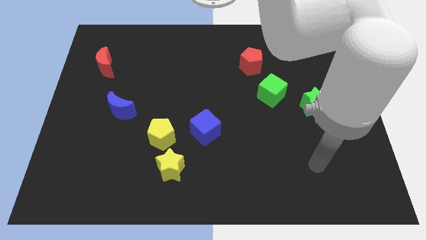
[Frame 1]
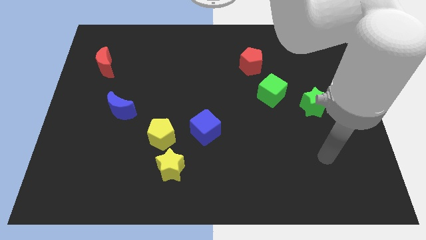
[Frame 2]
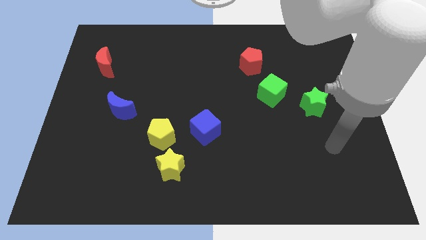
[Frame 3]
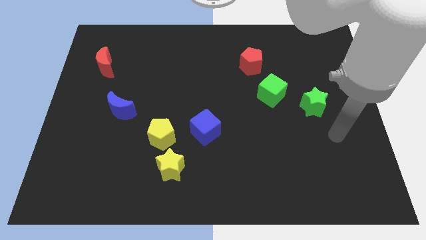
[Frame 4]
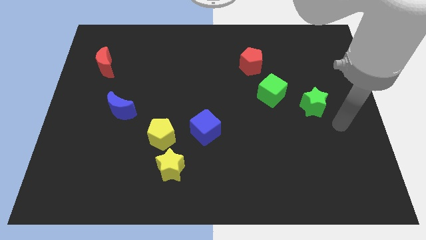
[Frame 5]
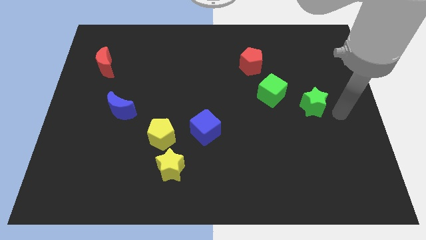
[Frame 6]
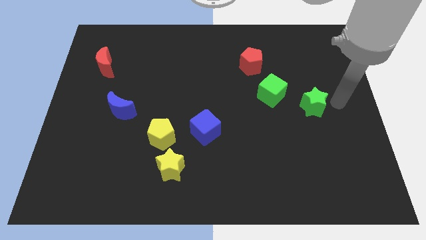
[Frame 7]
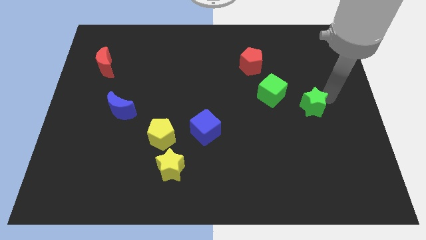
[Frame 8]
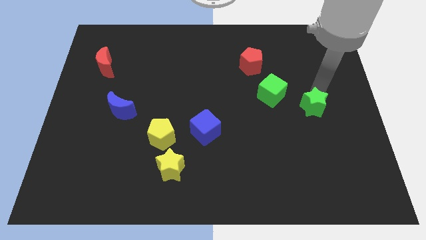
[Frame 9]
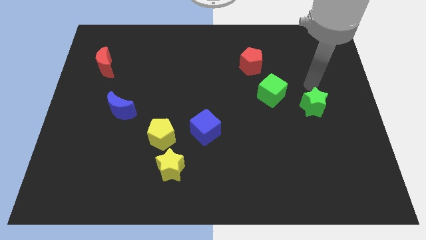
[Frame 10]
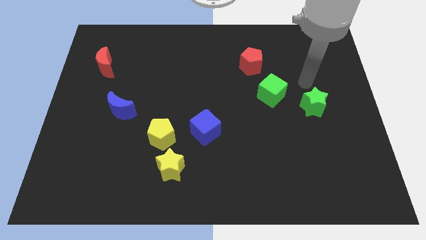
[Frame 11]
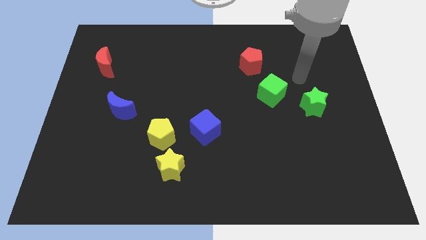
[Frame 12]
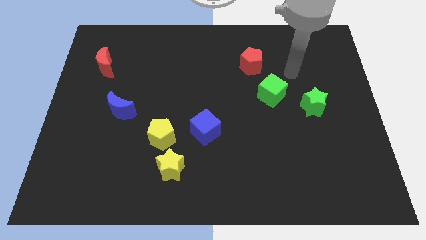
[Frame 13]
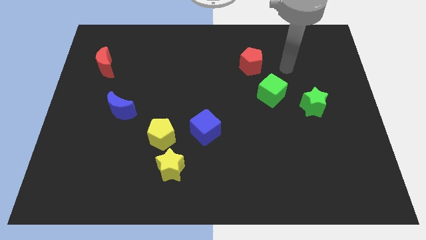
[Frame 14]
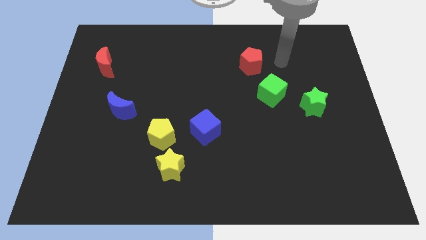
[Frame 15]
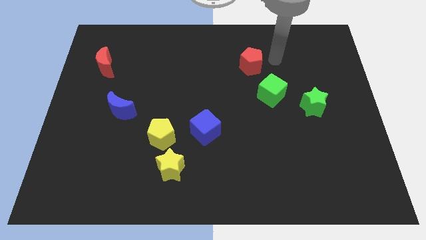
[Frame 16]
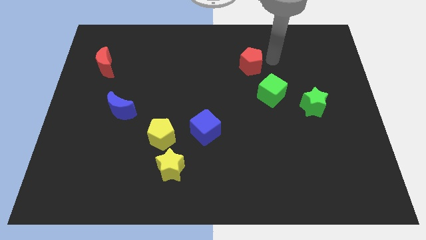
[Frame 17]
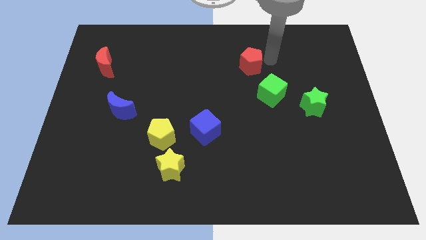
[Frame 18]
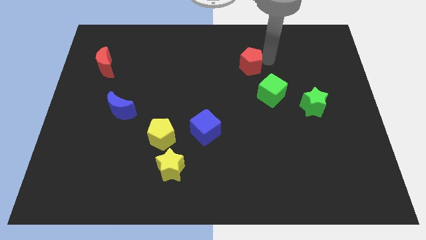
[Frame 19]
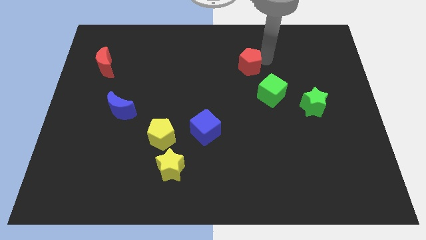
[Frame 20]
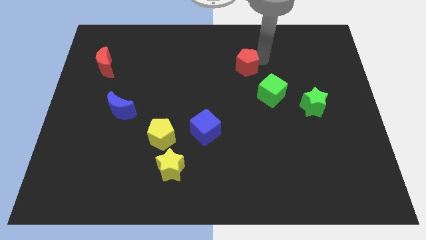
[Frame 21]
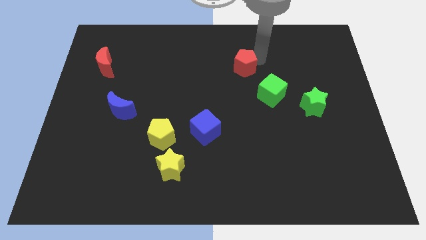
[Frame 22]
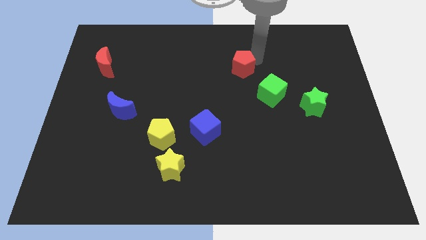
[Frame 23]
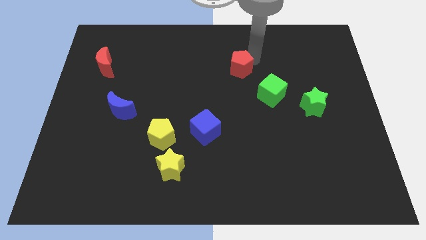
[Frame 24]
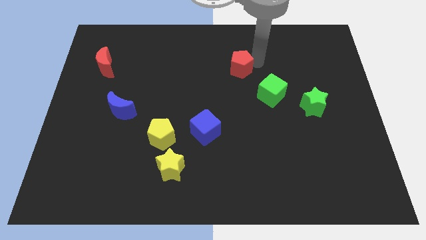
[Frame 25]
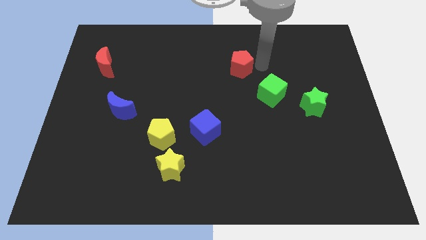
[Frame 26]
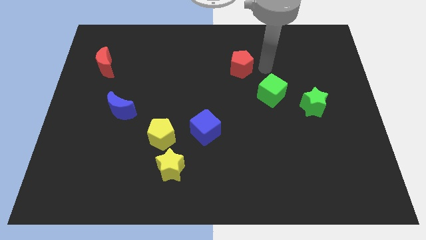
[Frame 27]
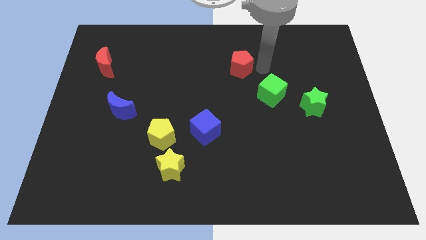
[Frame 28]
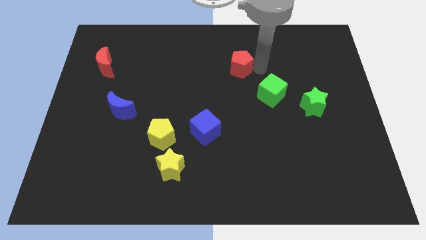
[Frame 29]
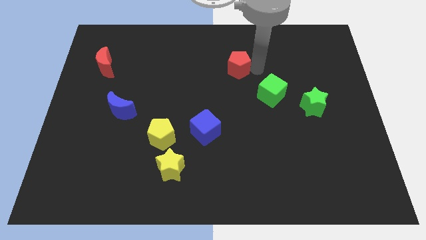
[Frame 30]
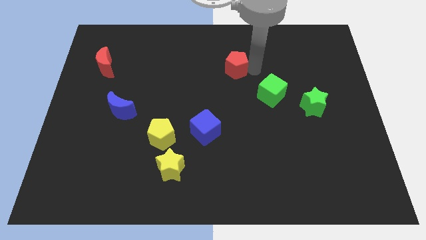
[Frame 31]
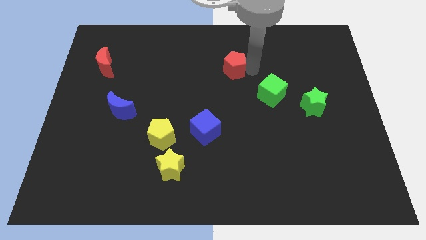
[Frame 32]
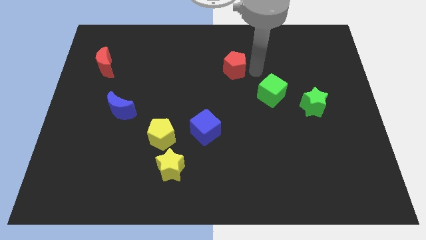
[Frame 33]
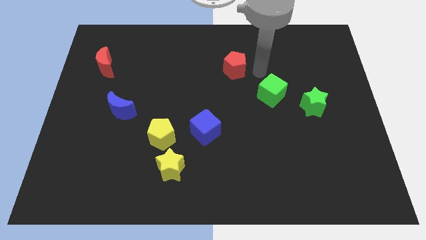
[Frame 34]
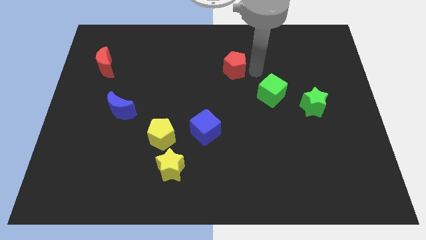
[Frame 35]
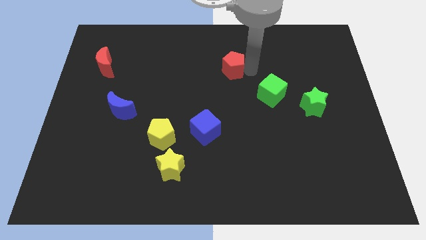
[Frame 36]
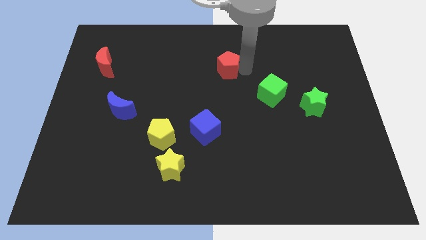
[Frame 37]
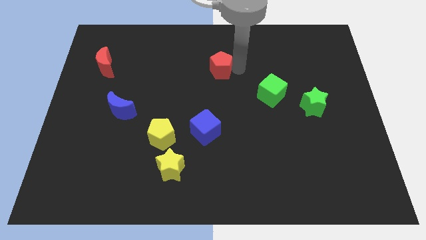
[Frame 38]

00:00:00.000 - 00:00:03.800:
push the red pentagon somewhat left

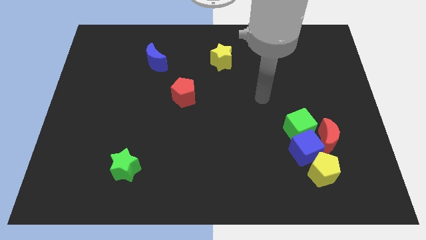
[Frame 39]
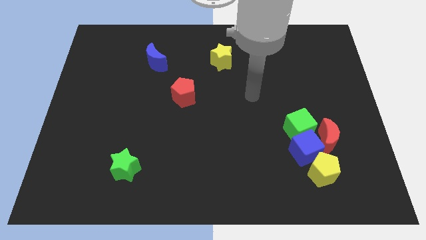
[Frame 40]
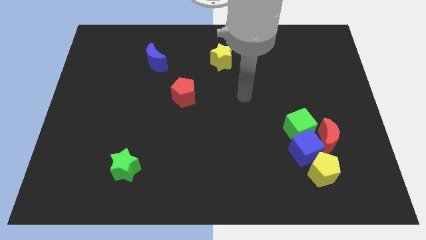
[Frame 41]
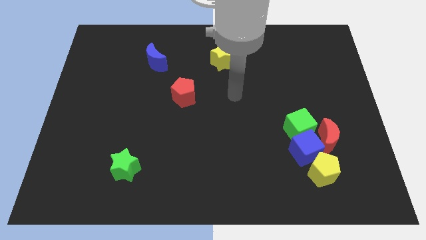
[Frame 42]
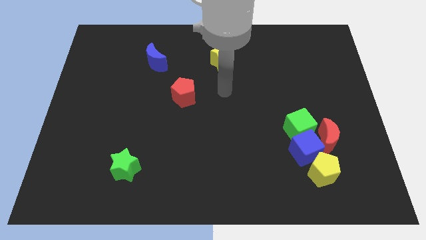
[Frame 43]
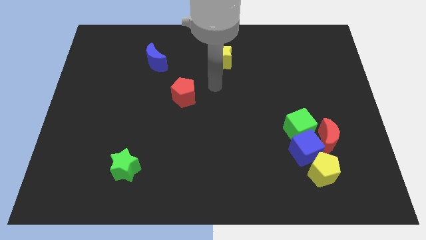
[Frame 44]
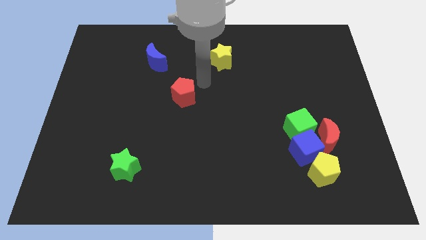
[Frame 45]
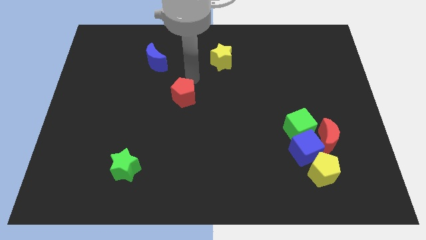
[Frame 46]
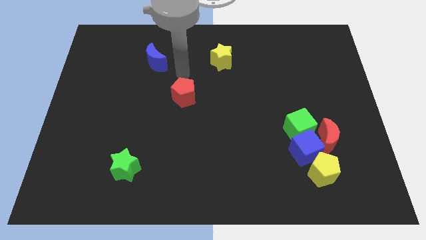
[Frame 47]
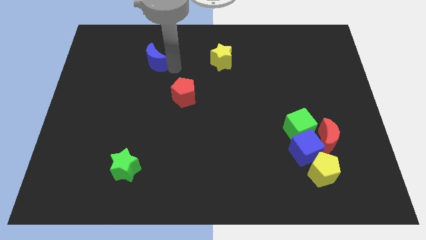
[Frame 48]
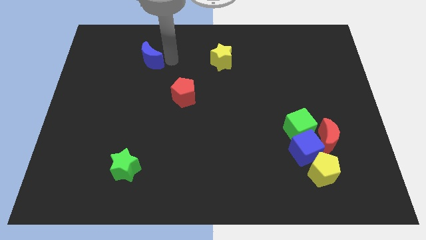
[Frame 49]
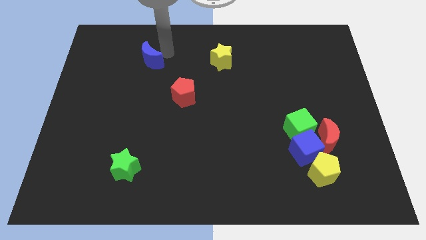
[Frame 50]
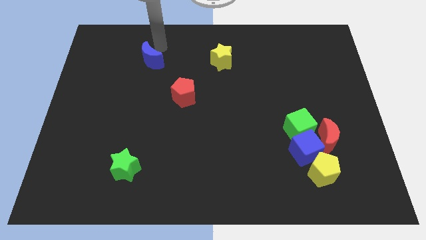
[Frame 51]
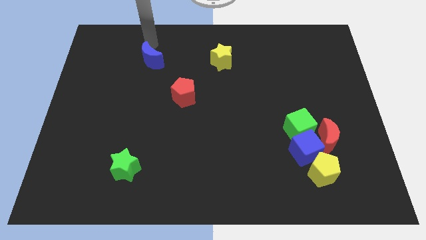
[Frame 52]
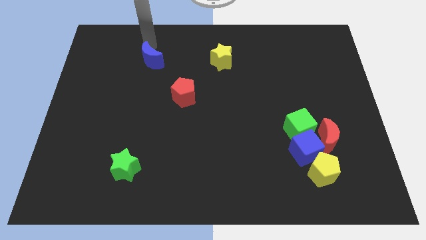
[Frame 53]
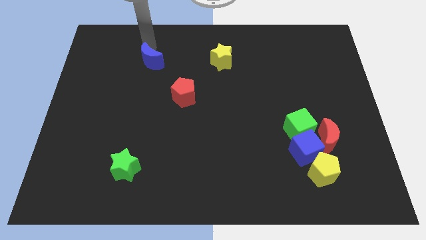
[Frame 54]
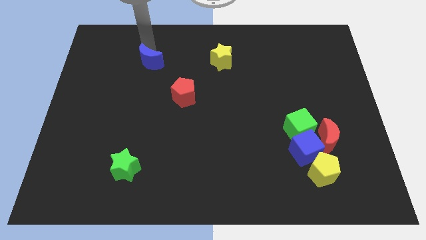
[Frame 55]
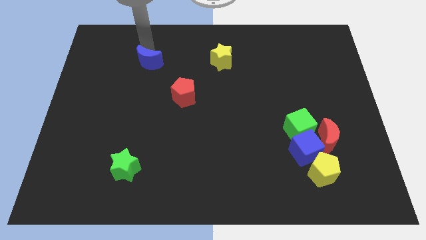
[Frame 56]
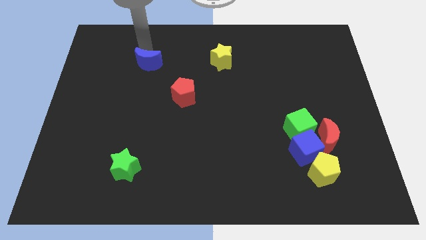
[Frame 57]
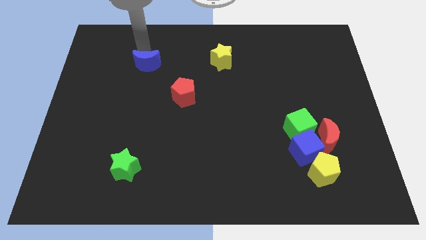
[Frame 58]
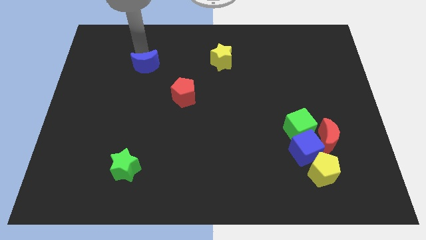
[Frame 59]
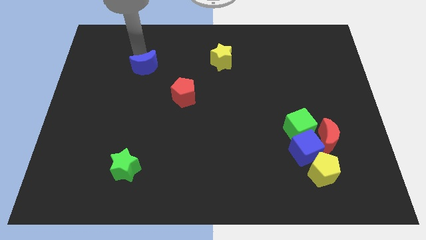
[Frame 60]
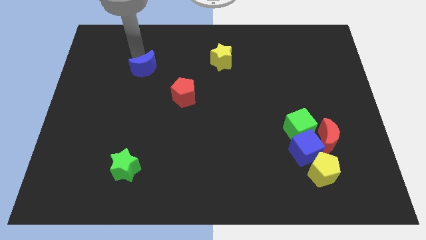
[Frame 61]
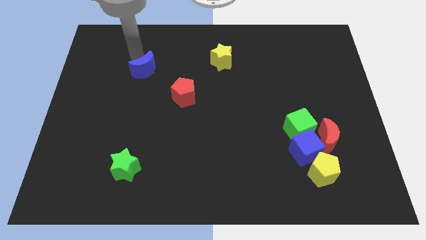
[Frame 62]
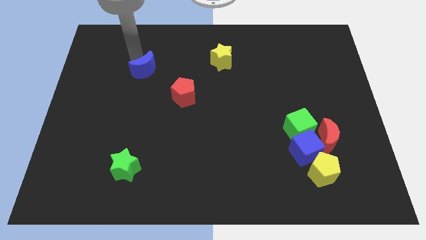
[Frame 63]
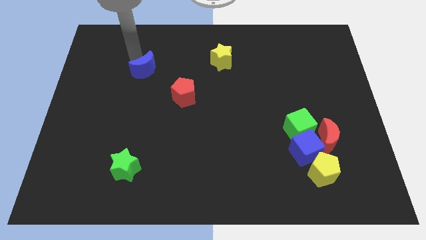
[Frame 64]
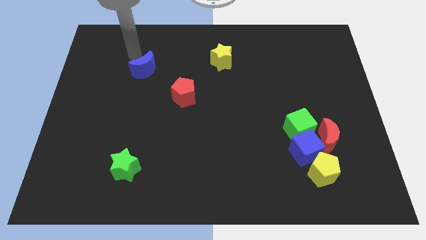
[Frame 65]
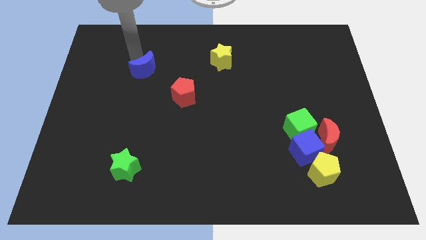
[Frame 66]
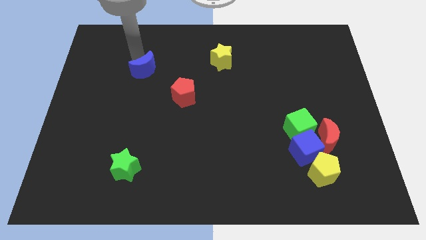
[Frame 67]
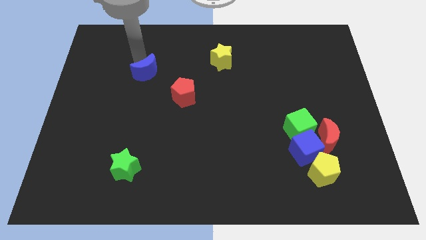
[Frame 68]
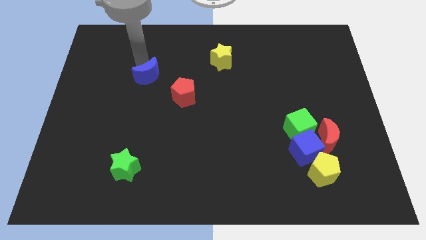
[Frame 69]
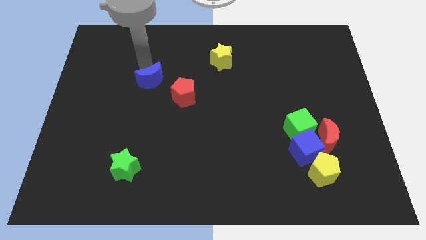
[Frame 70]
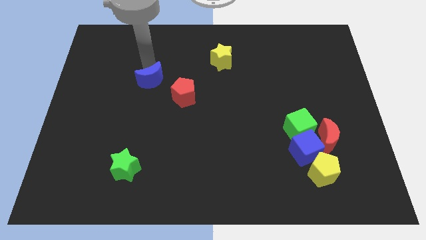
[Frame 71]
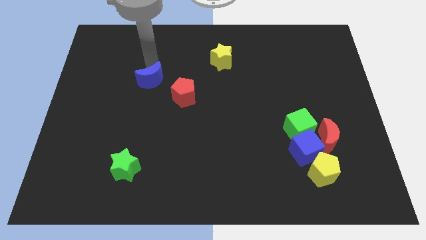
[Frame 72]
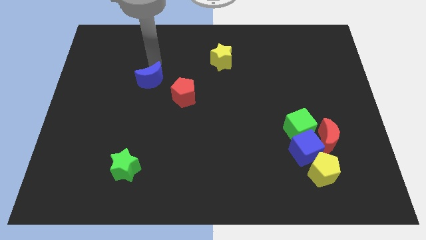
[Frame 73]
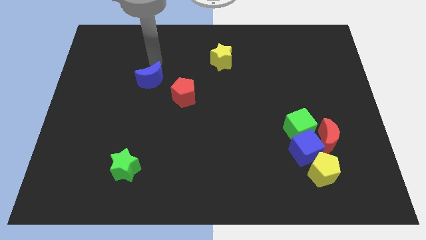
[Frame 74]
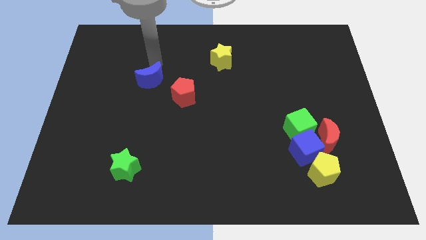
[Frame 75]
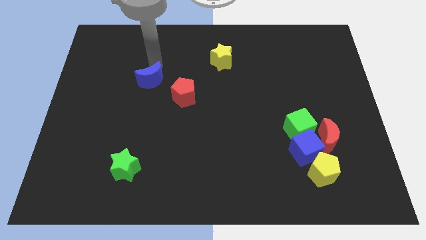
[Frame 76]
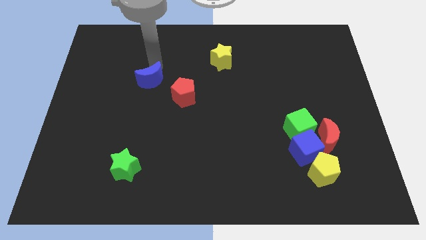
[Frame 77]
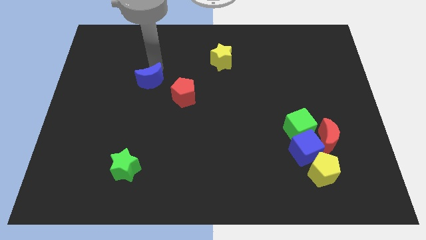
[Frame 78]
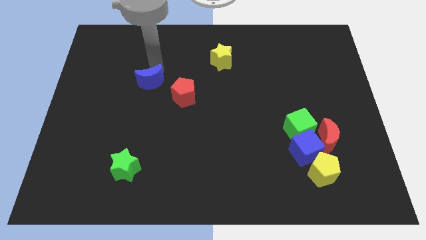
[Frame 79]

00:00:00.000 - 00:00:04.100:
move the blue moon slightly downwards

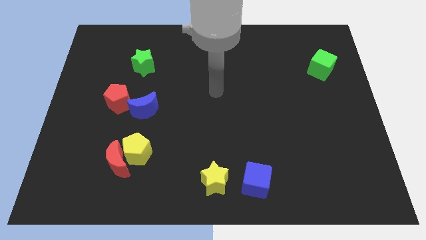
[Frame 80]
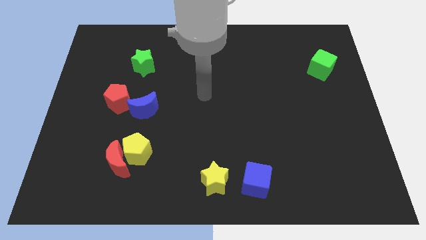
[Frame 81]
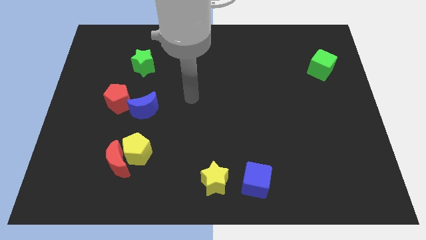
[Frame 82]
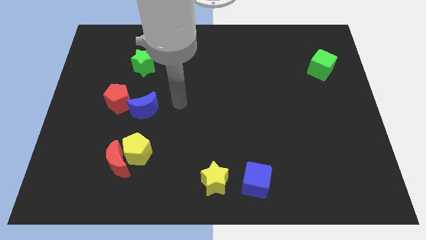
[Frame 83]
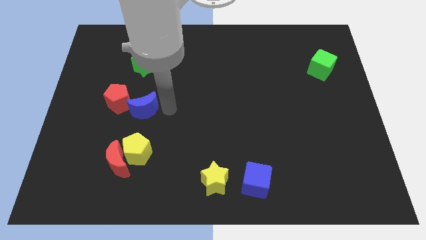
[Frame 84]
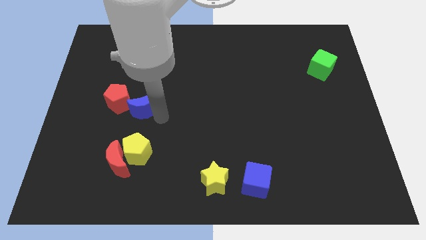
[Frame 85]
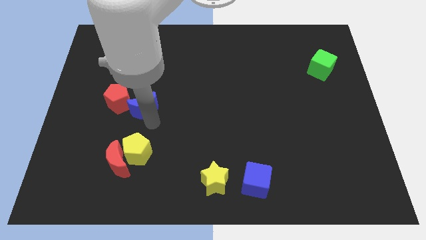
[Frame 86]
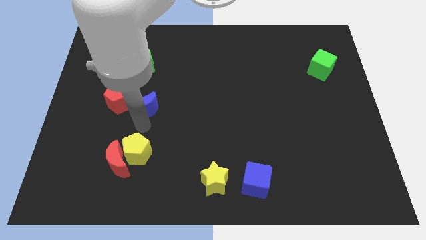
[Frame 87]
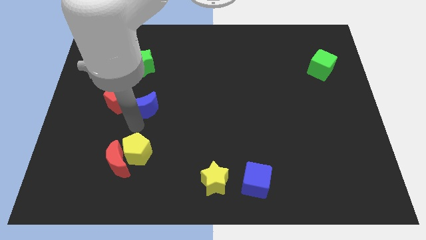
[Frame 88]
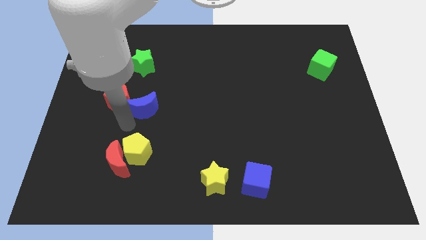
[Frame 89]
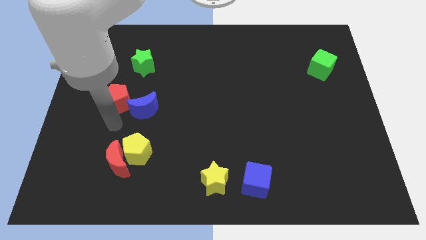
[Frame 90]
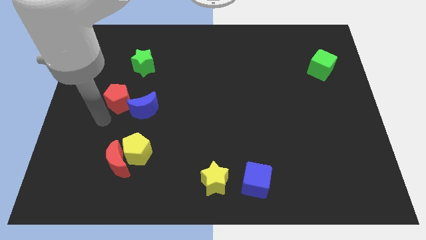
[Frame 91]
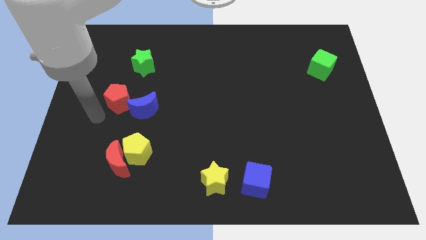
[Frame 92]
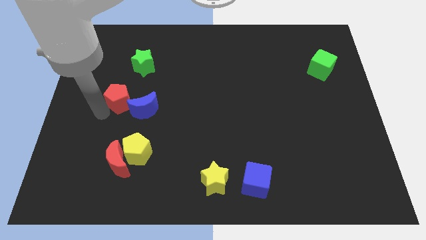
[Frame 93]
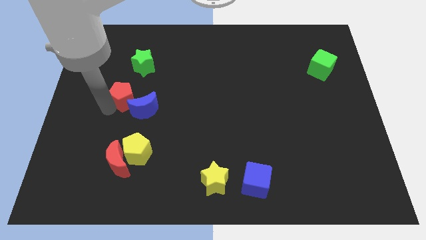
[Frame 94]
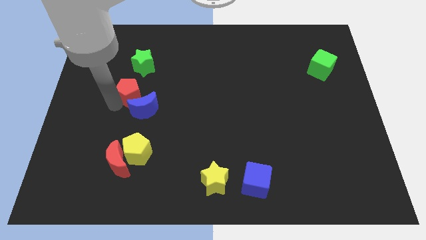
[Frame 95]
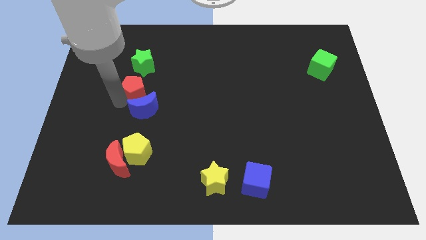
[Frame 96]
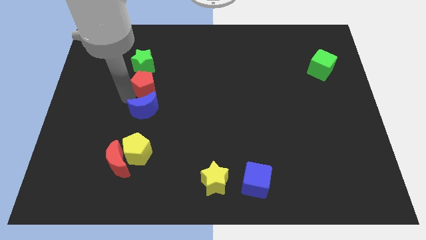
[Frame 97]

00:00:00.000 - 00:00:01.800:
slightly move the red pentagon upwards and right
